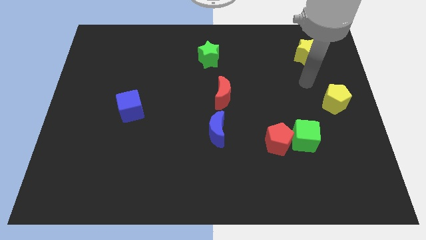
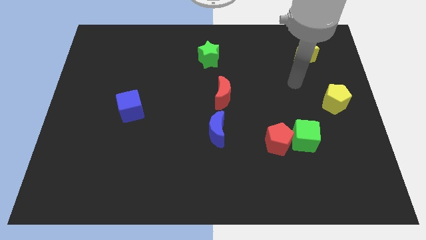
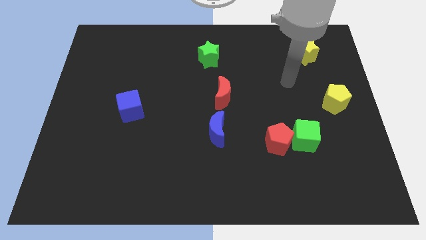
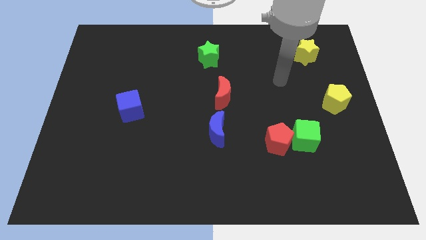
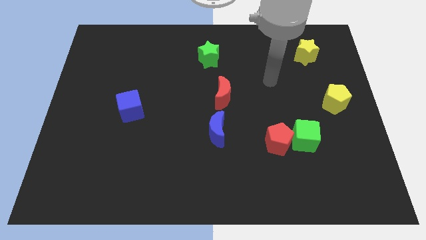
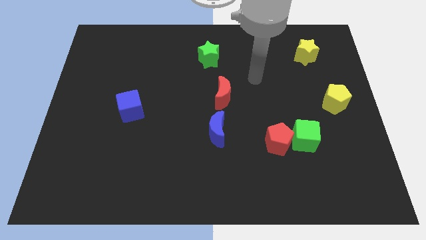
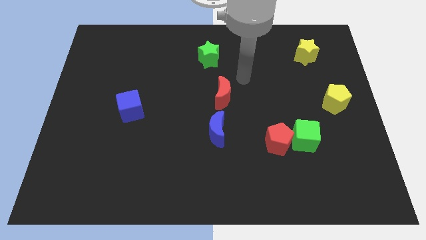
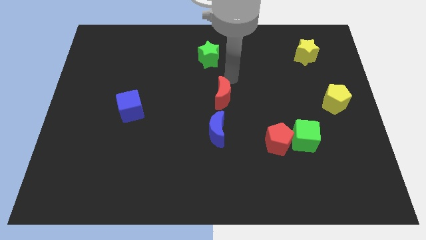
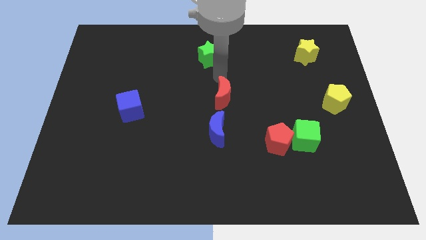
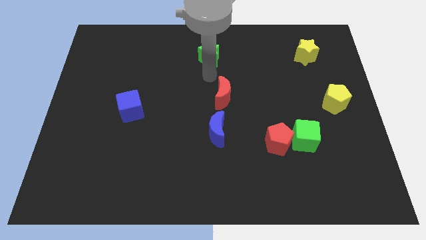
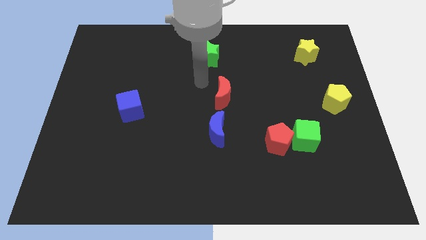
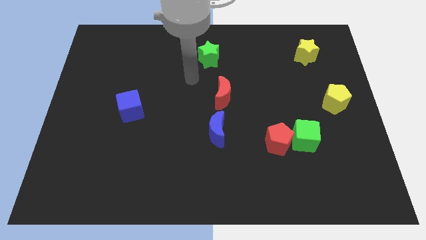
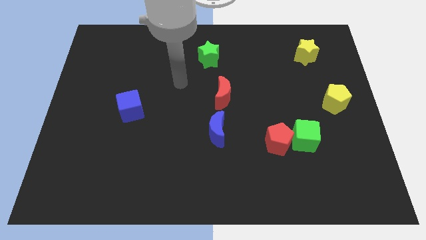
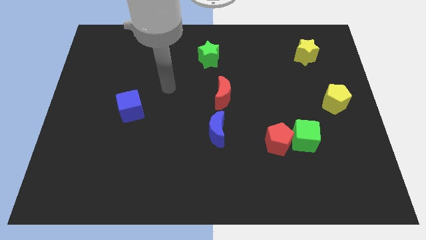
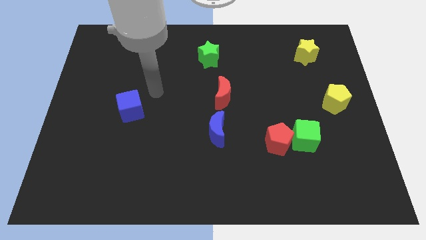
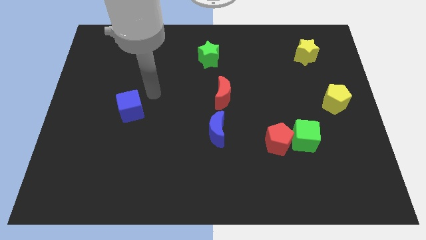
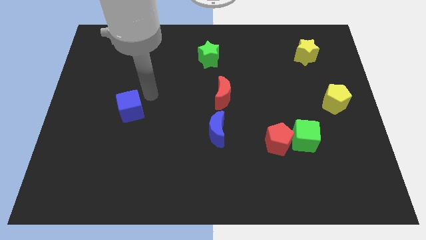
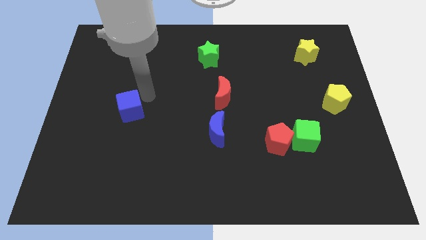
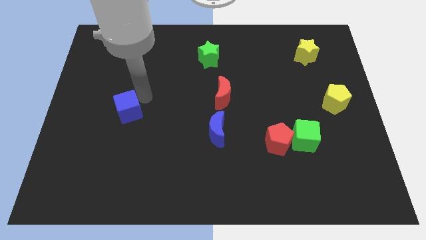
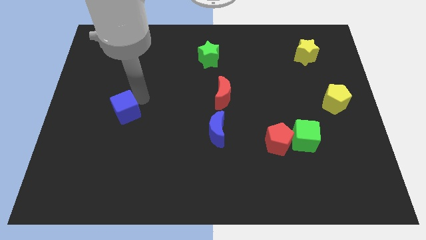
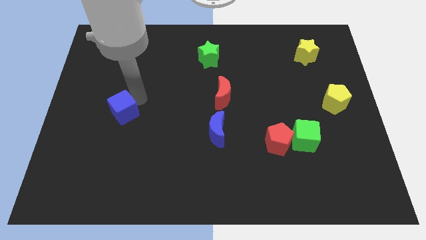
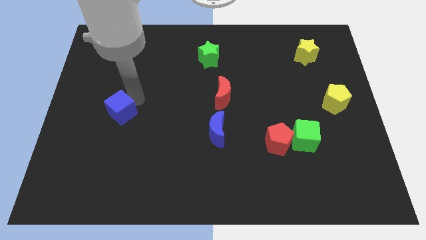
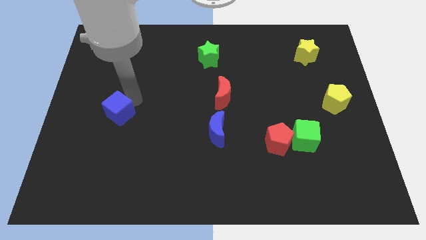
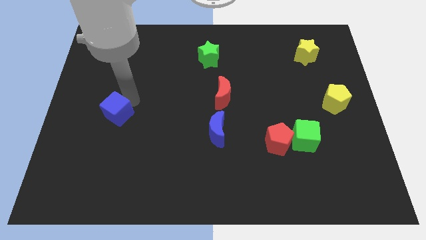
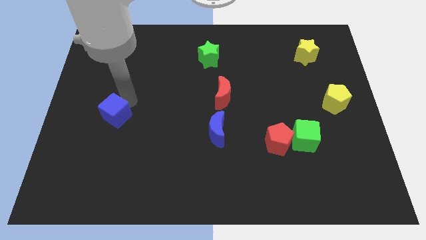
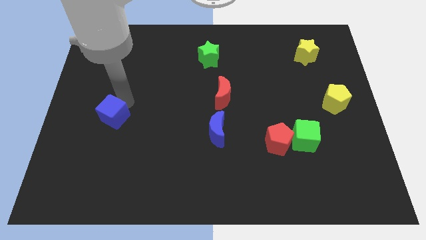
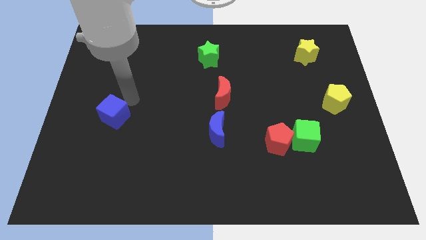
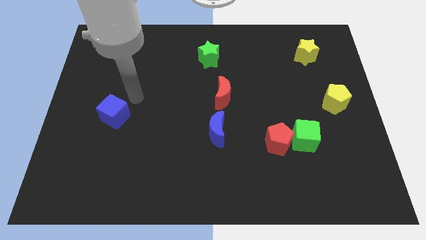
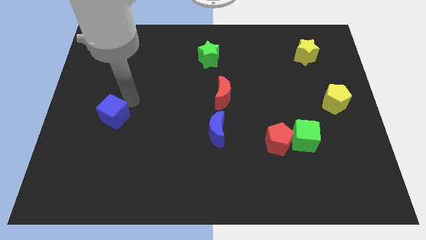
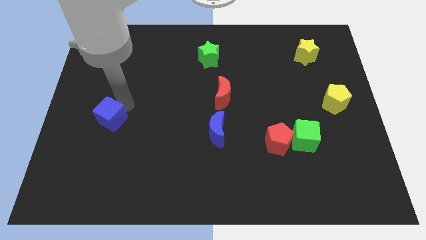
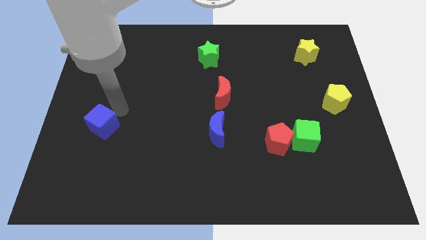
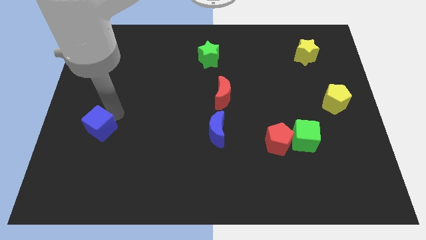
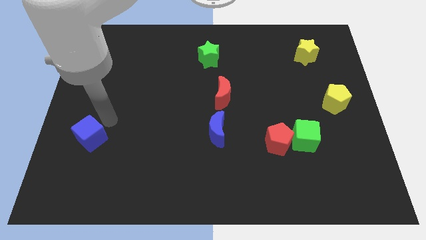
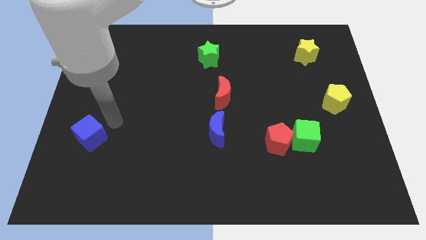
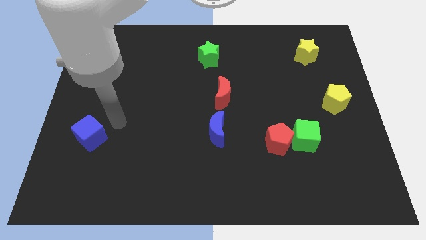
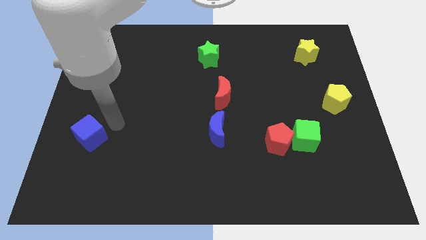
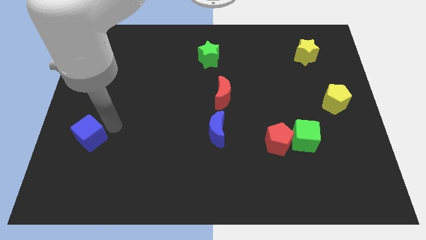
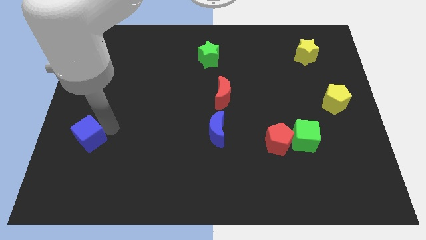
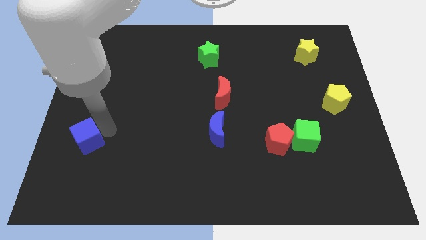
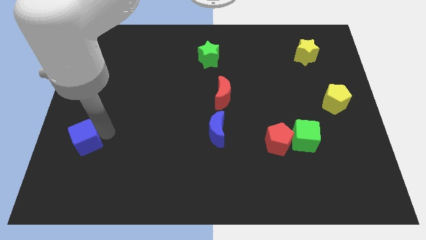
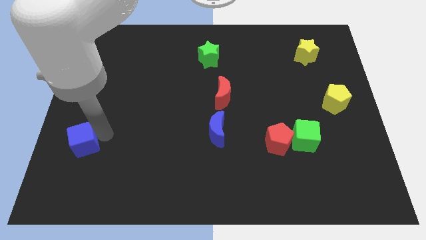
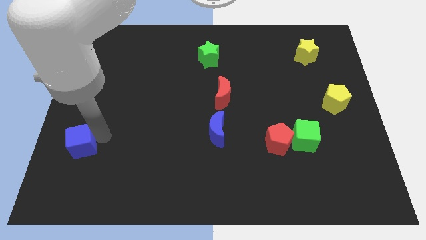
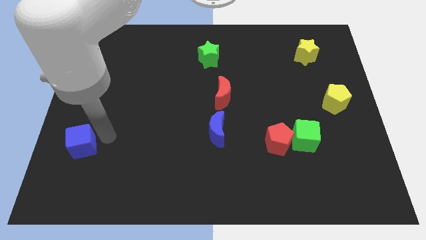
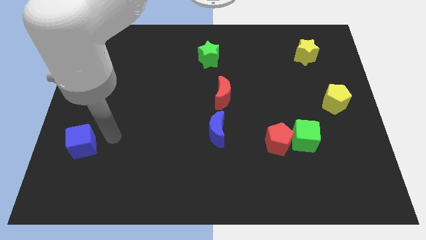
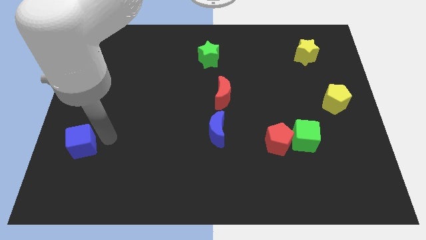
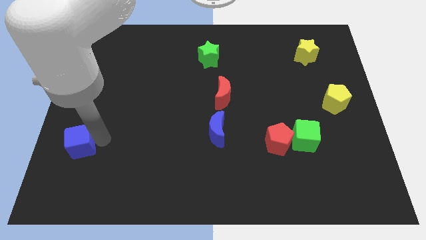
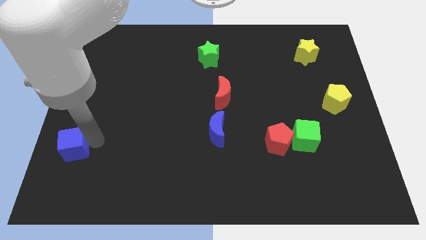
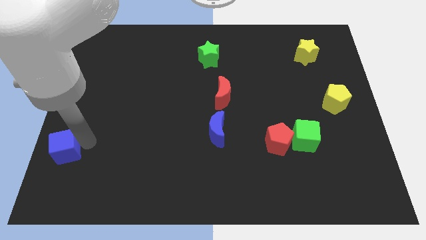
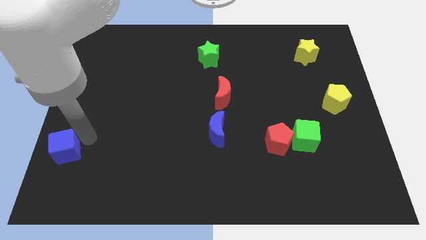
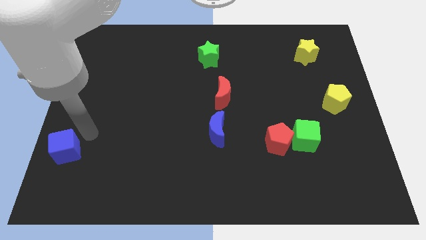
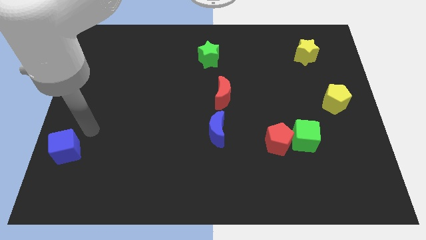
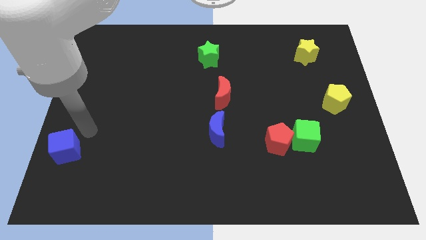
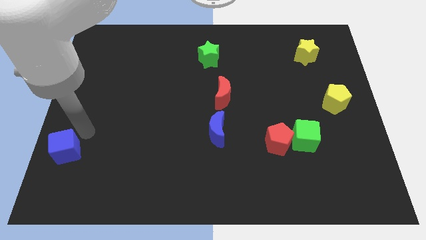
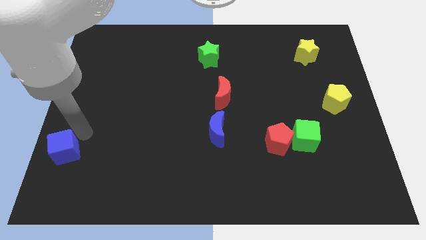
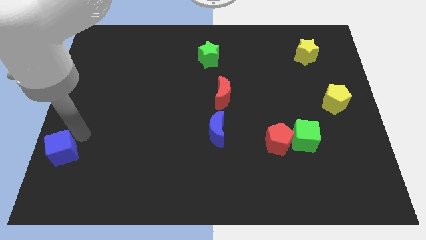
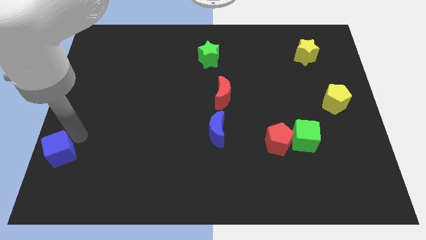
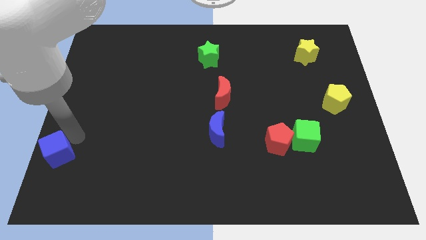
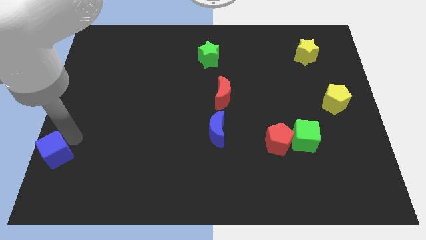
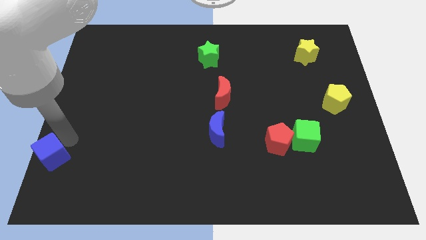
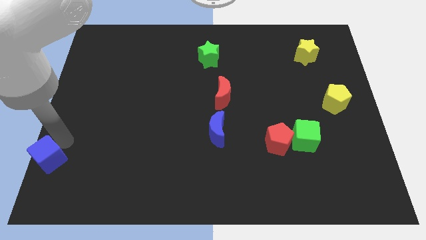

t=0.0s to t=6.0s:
put the blue cube to the bottom left of the board
